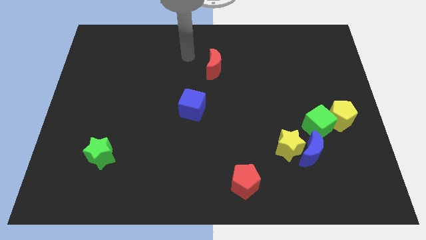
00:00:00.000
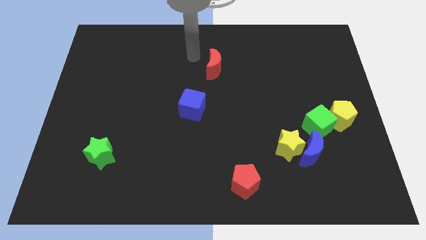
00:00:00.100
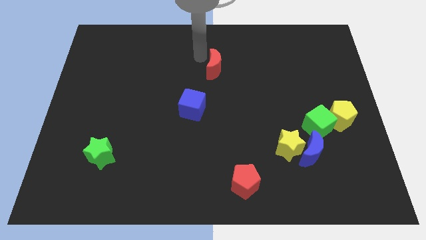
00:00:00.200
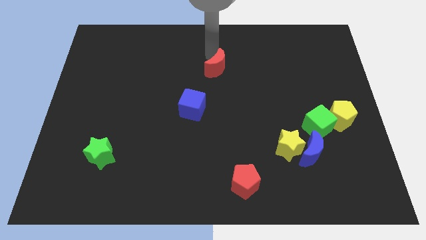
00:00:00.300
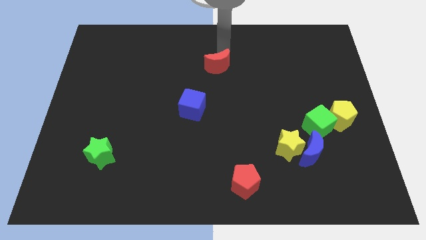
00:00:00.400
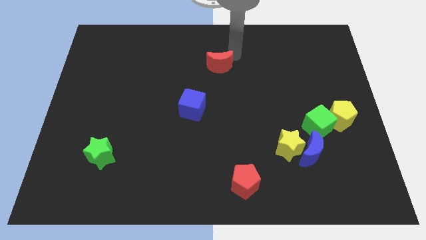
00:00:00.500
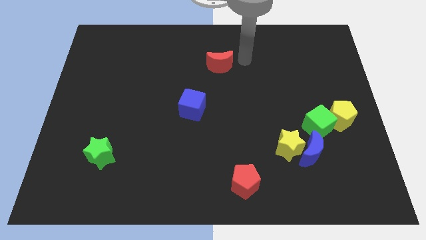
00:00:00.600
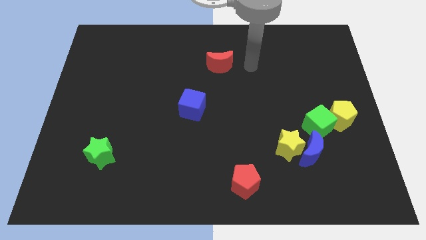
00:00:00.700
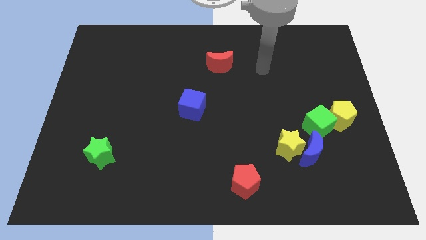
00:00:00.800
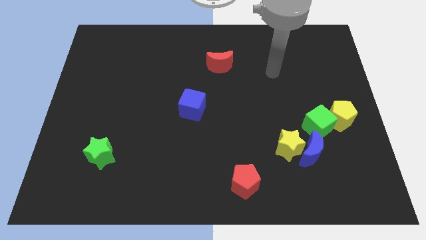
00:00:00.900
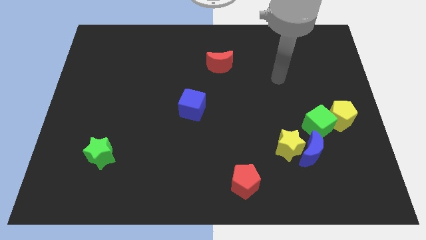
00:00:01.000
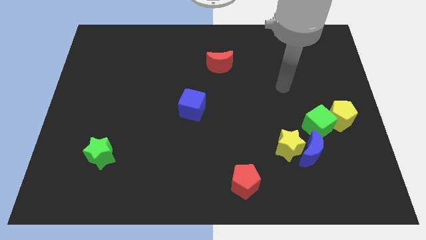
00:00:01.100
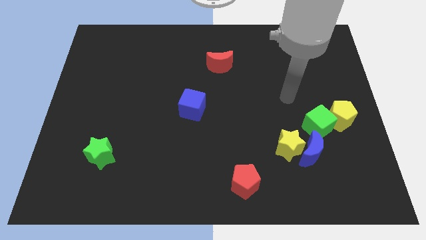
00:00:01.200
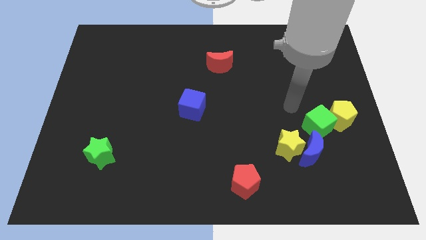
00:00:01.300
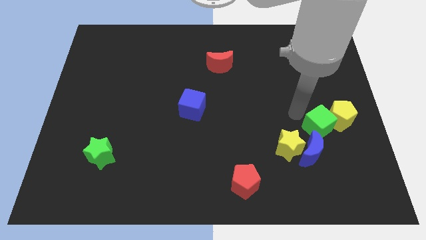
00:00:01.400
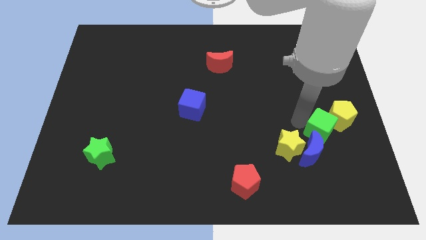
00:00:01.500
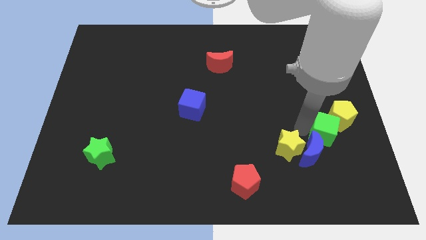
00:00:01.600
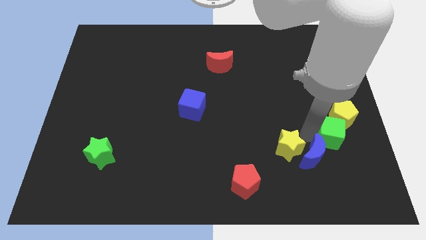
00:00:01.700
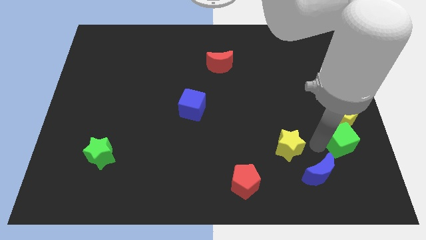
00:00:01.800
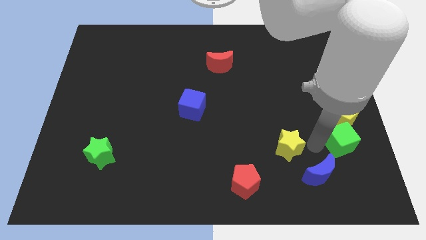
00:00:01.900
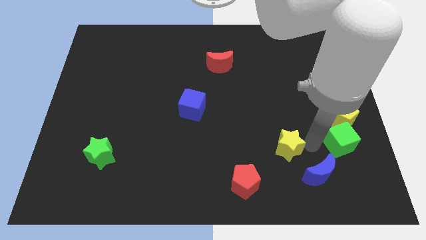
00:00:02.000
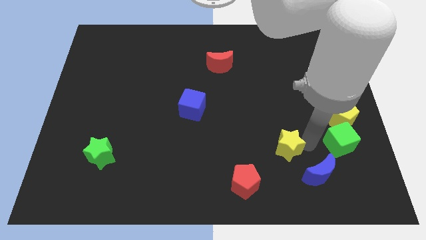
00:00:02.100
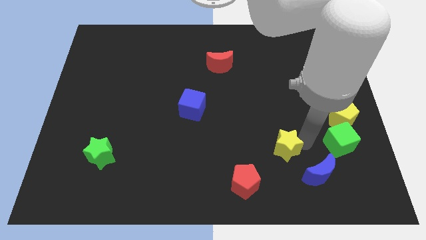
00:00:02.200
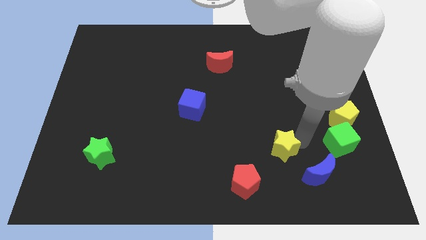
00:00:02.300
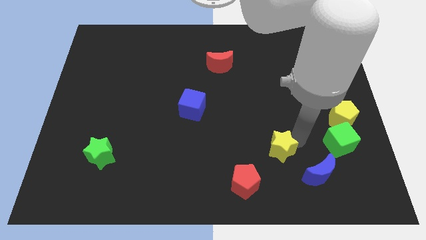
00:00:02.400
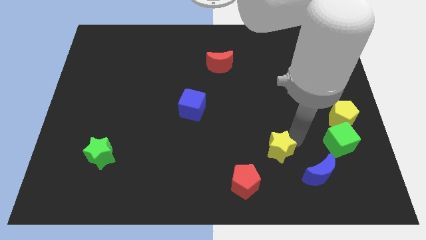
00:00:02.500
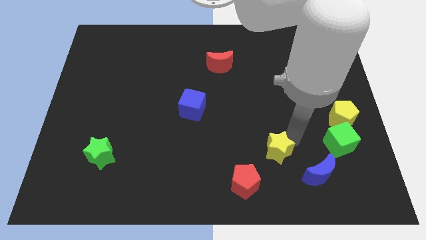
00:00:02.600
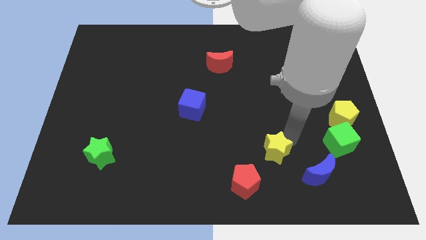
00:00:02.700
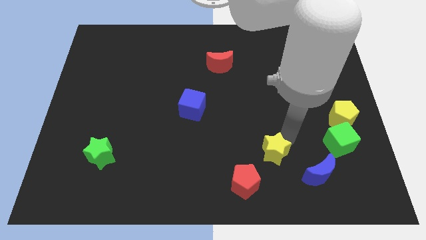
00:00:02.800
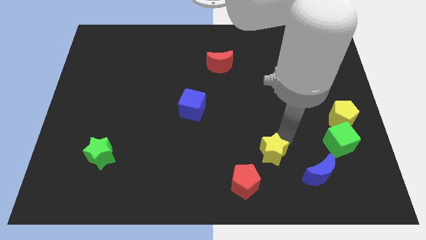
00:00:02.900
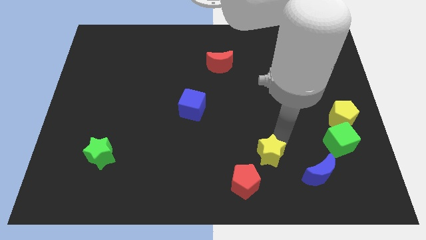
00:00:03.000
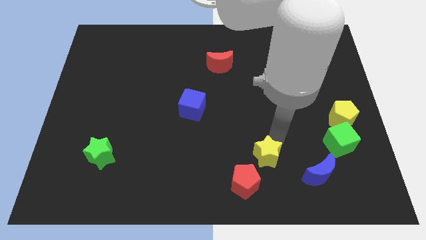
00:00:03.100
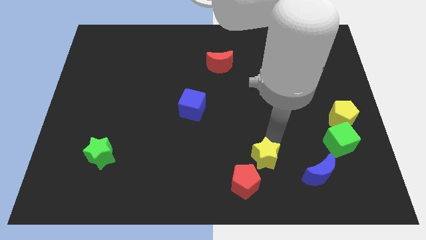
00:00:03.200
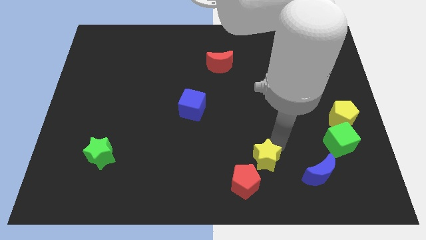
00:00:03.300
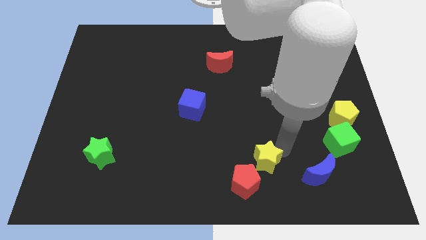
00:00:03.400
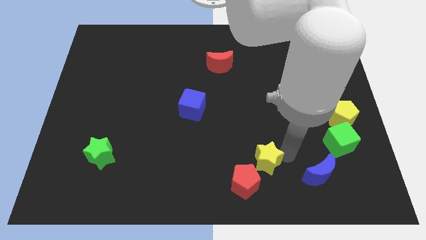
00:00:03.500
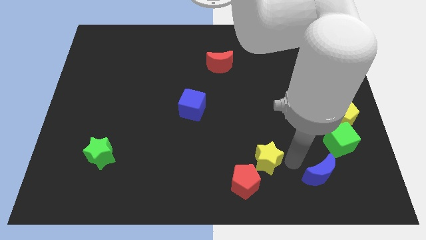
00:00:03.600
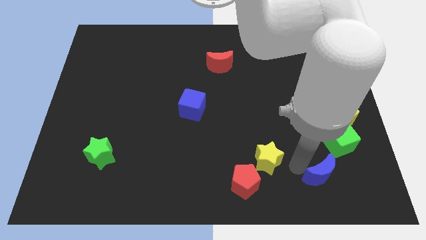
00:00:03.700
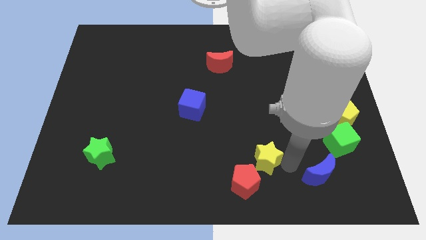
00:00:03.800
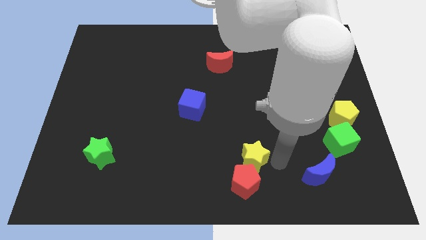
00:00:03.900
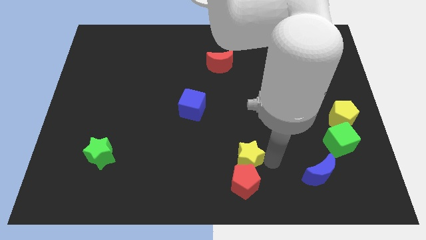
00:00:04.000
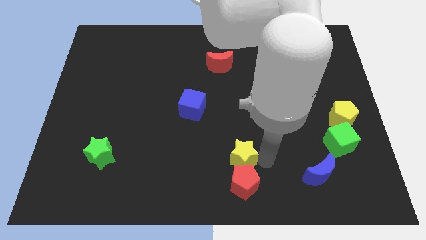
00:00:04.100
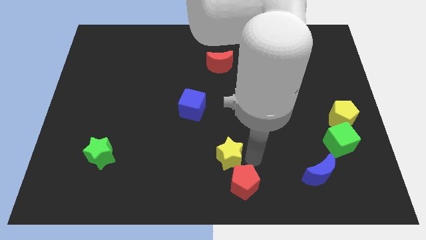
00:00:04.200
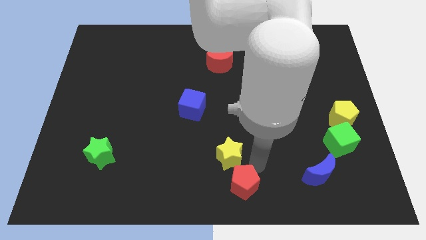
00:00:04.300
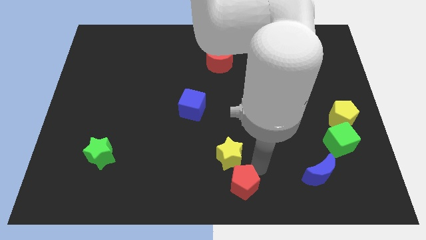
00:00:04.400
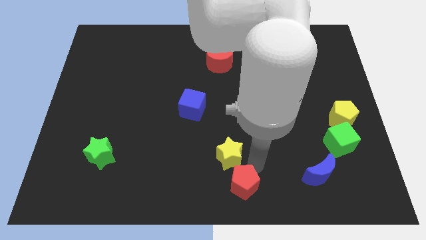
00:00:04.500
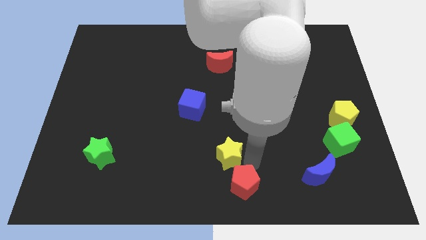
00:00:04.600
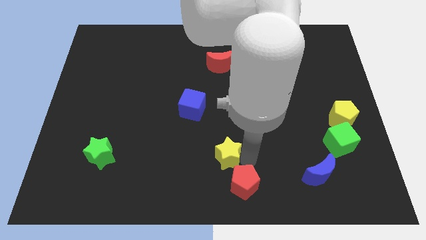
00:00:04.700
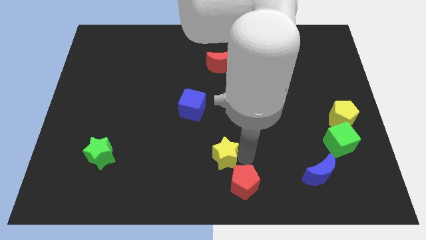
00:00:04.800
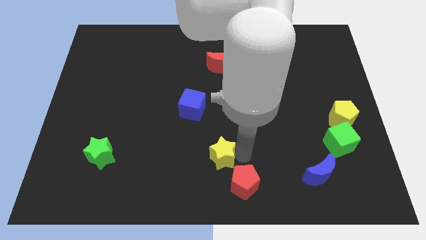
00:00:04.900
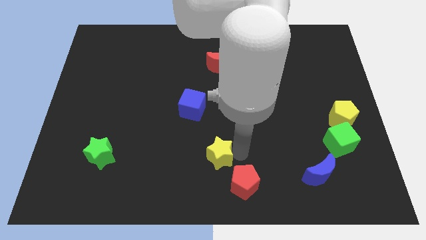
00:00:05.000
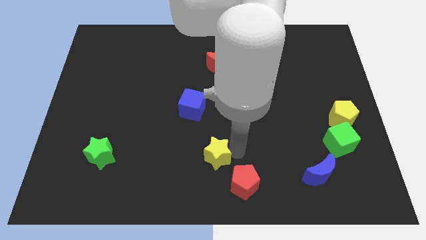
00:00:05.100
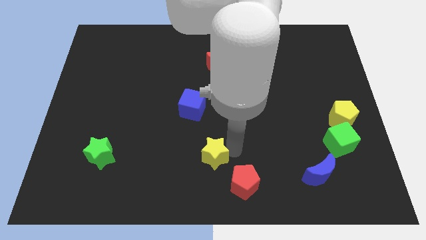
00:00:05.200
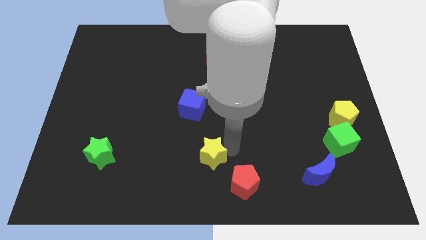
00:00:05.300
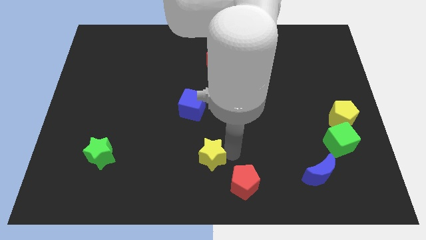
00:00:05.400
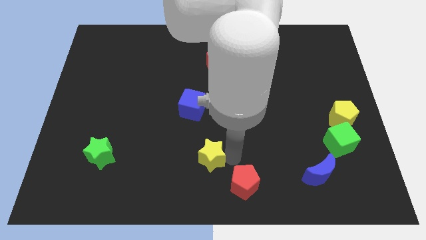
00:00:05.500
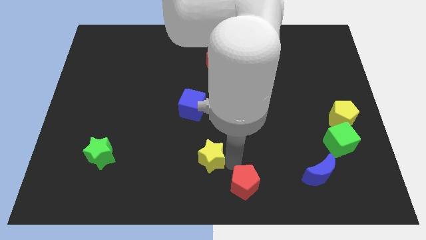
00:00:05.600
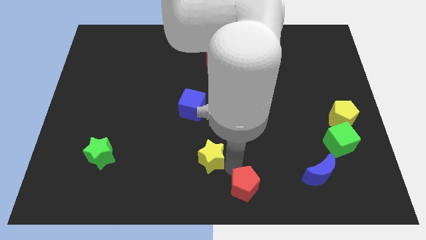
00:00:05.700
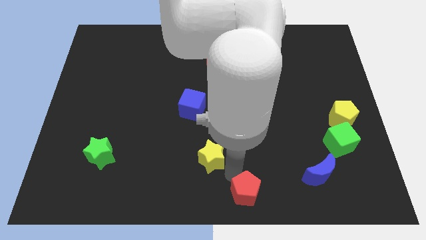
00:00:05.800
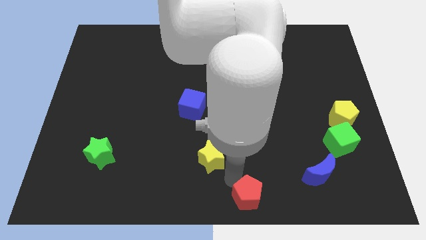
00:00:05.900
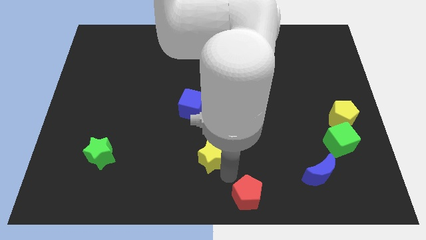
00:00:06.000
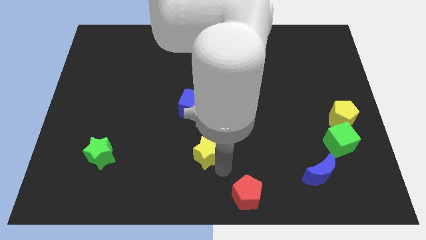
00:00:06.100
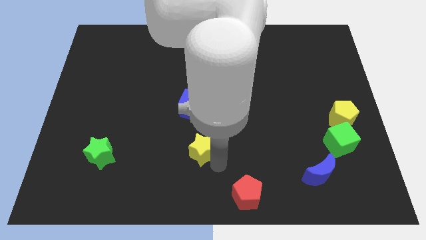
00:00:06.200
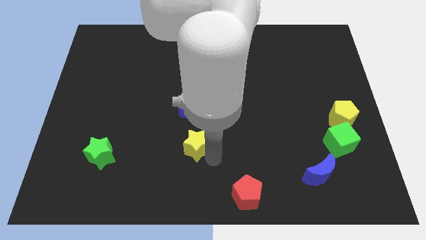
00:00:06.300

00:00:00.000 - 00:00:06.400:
move the yellow star to the left

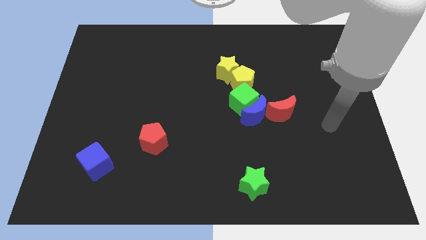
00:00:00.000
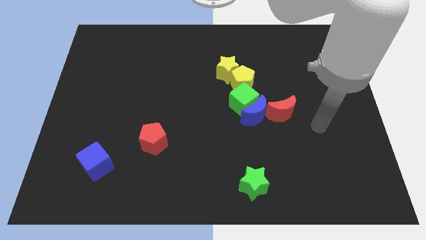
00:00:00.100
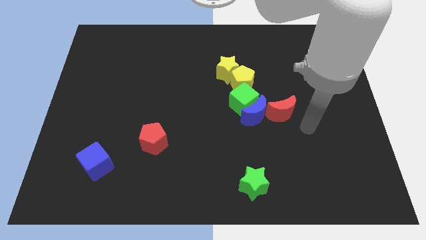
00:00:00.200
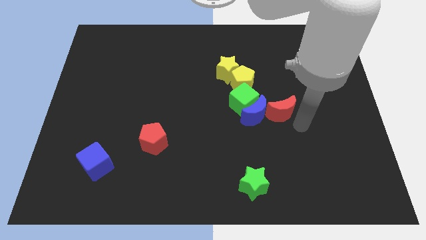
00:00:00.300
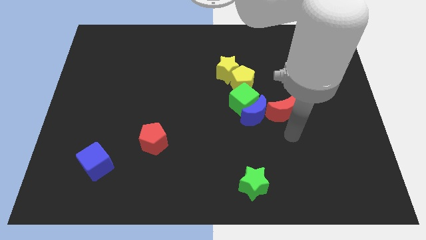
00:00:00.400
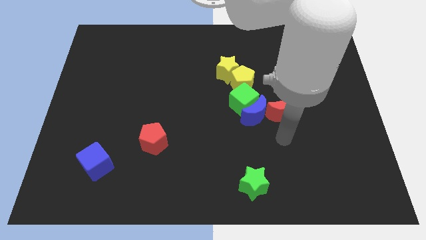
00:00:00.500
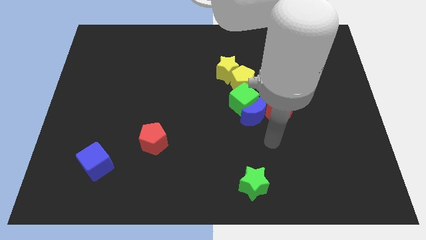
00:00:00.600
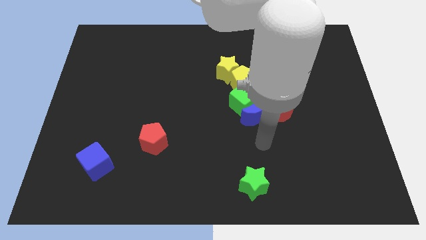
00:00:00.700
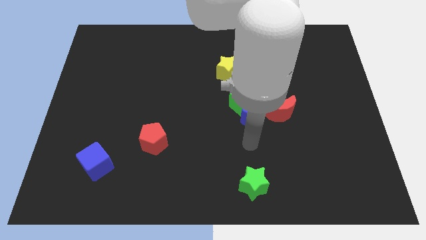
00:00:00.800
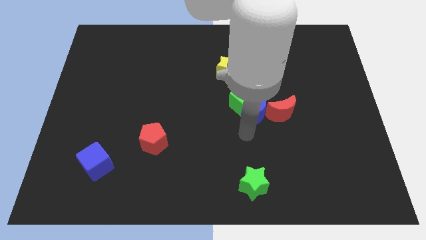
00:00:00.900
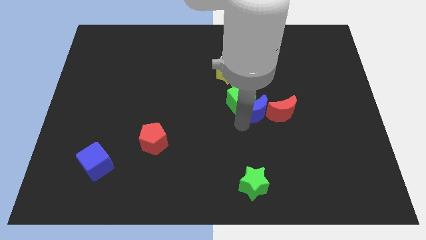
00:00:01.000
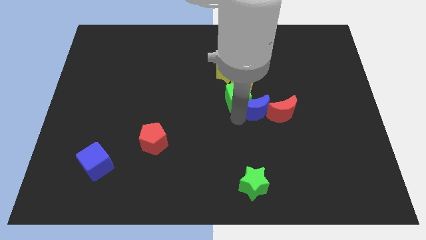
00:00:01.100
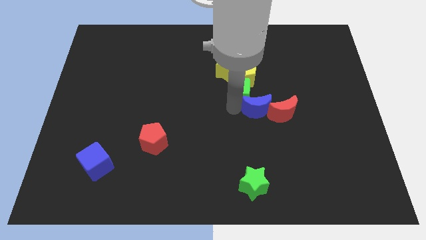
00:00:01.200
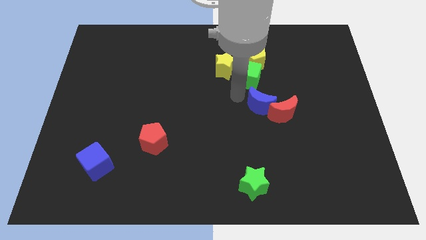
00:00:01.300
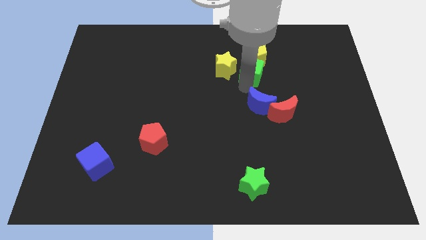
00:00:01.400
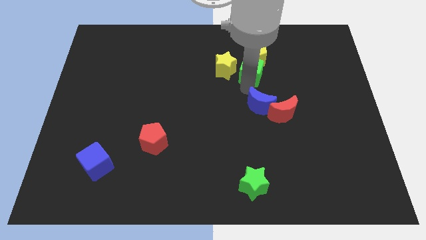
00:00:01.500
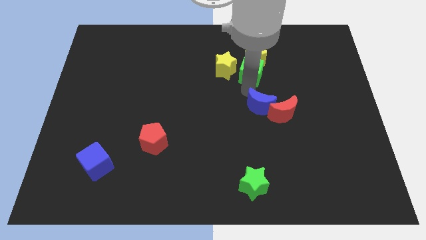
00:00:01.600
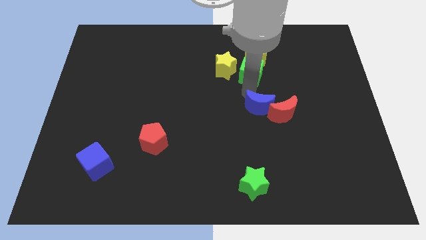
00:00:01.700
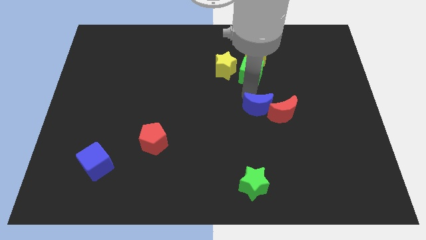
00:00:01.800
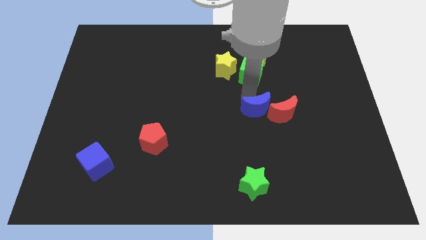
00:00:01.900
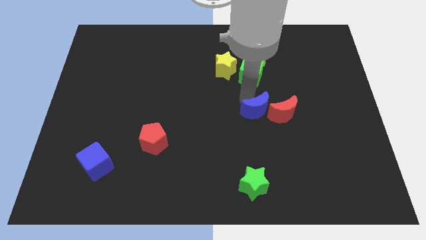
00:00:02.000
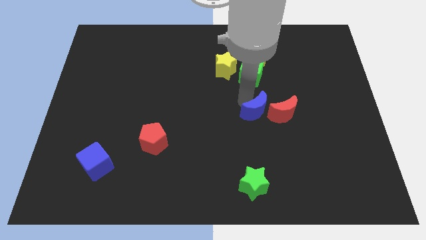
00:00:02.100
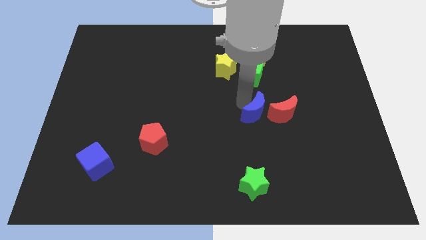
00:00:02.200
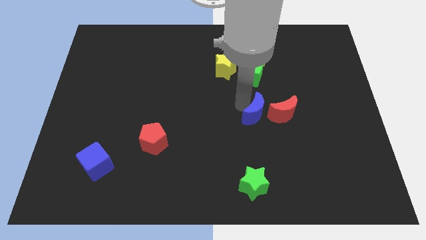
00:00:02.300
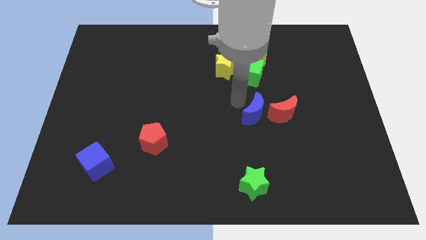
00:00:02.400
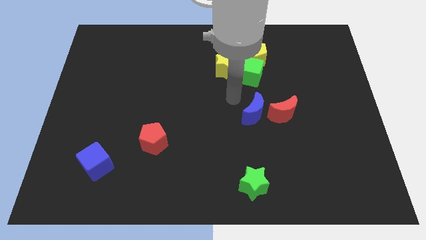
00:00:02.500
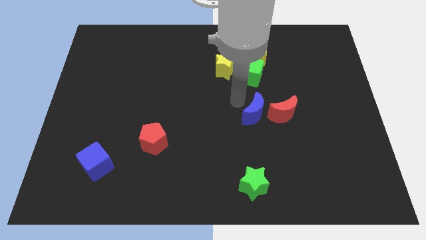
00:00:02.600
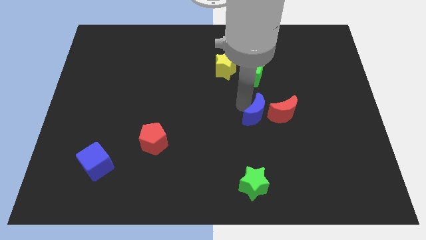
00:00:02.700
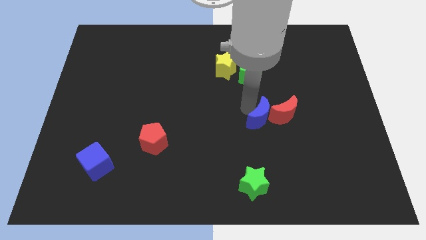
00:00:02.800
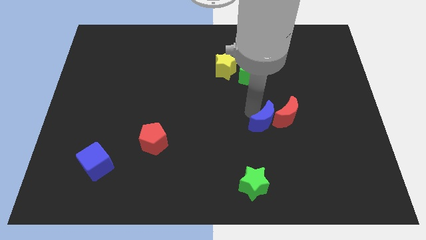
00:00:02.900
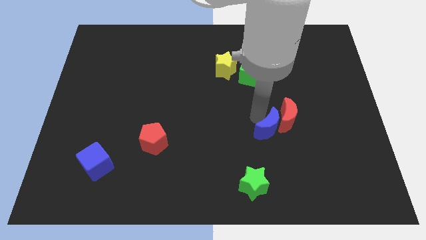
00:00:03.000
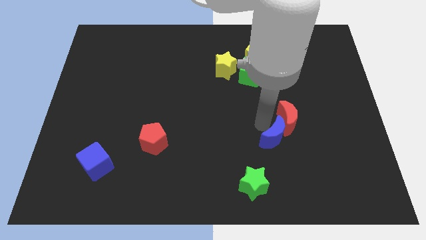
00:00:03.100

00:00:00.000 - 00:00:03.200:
slide the blue moon downwards and to the right diagonally slightly
